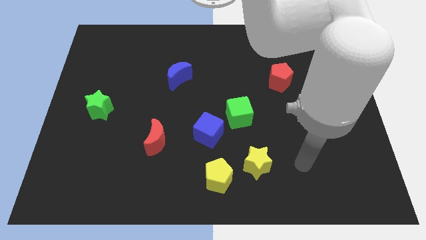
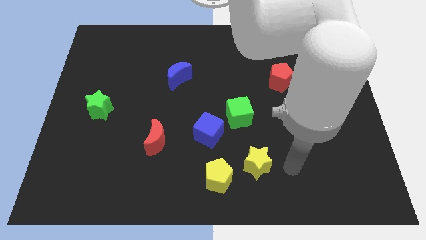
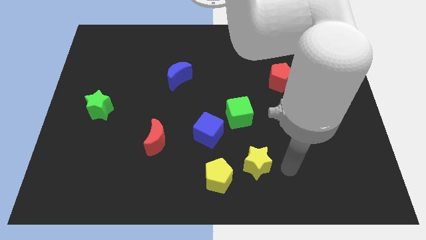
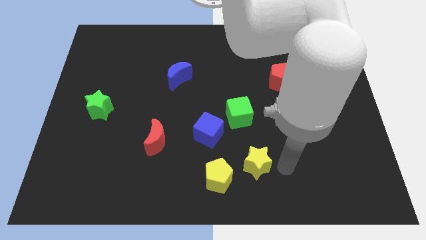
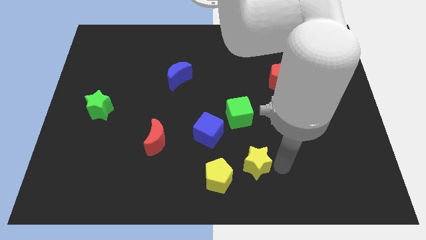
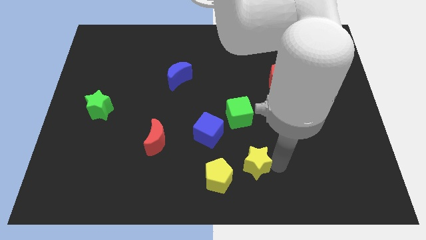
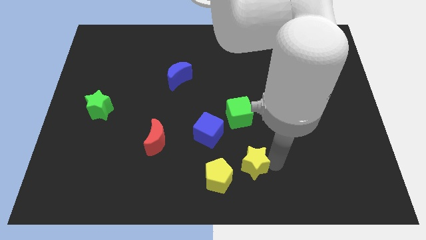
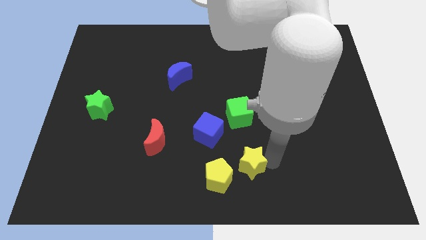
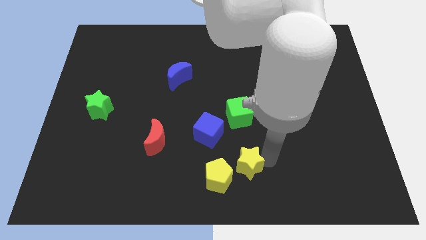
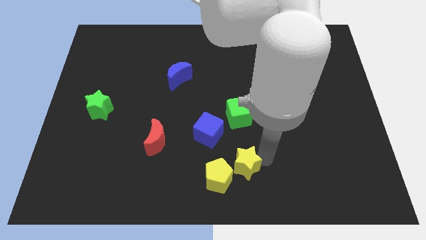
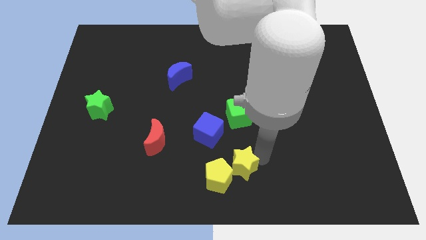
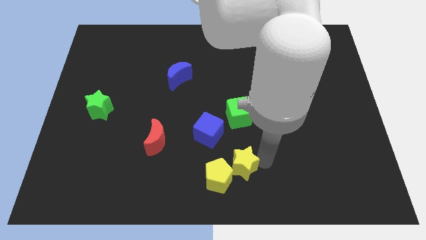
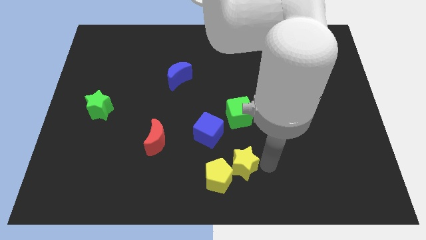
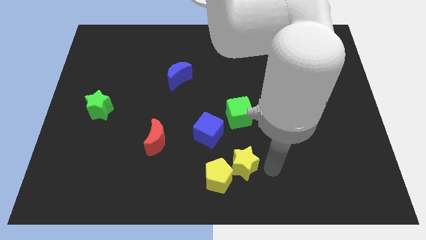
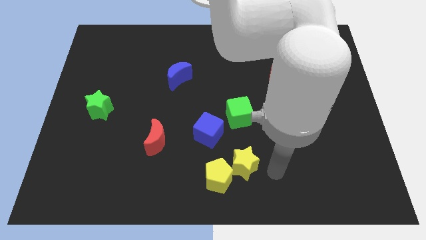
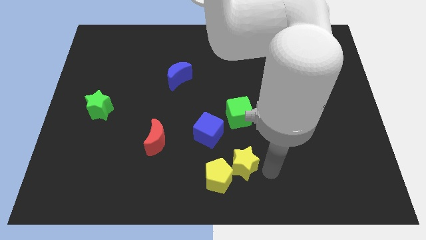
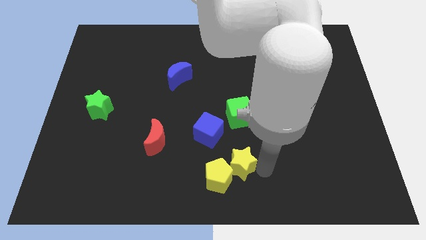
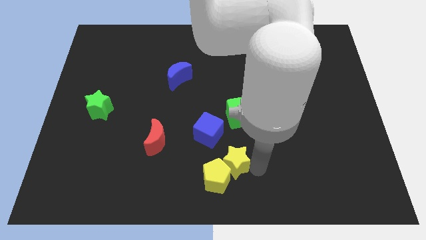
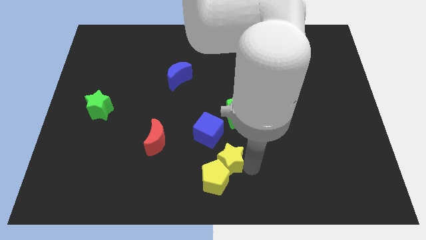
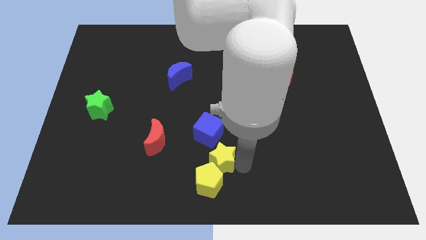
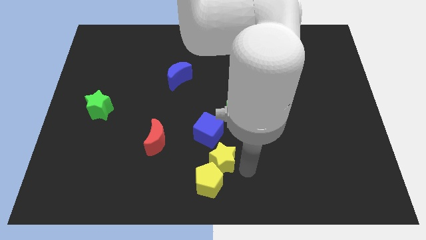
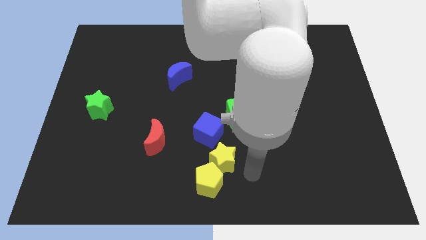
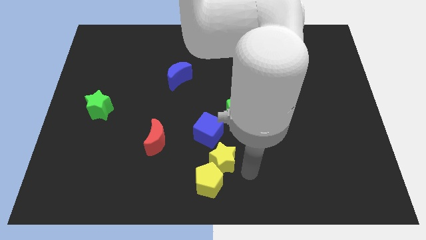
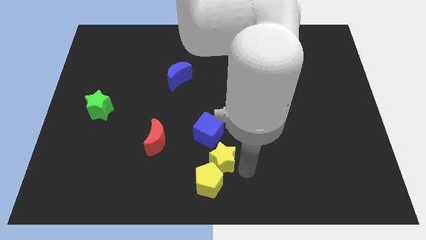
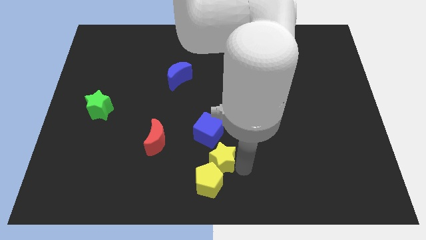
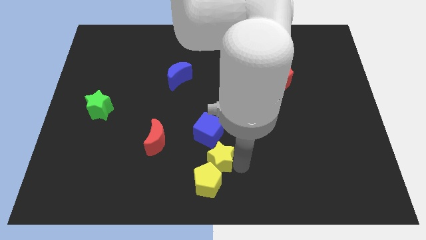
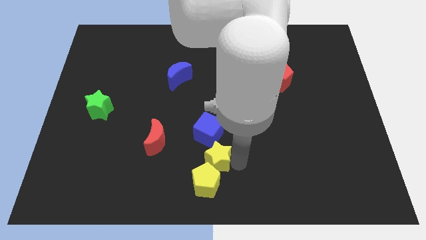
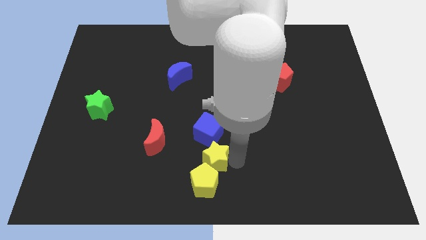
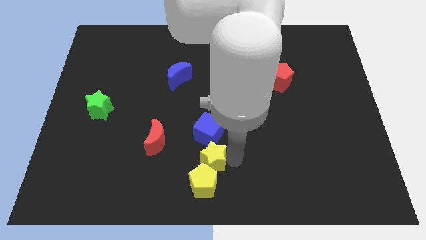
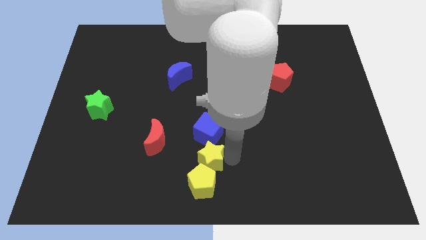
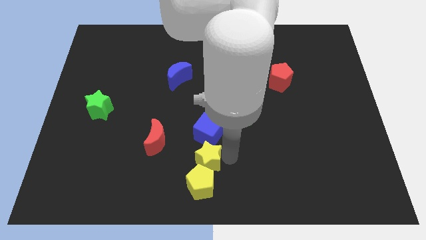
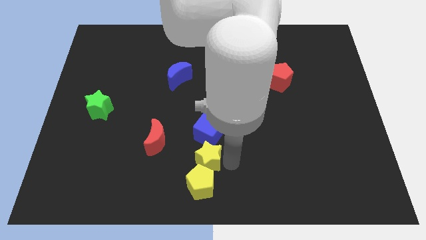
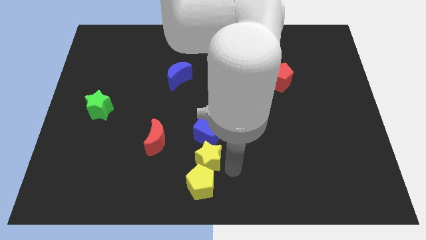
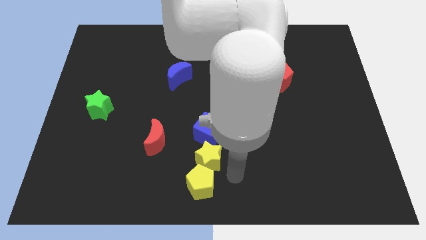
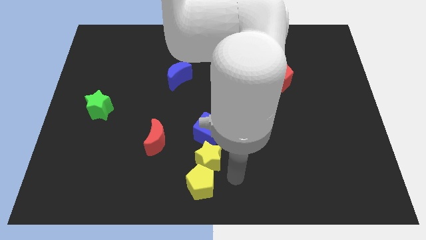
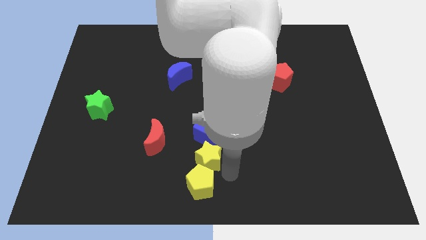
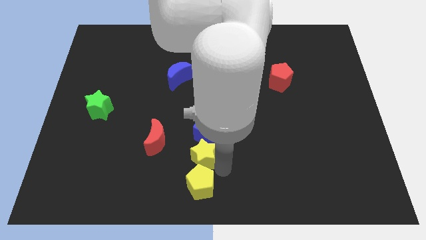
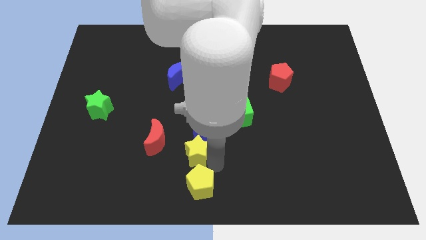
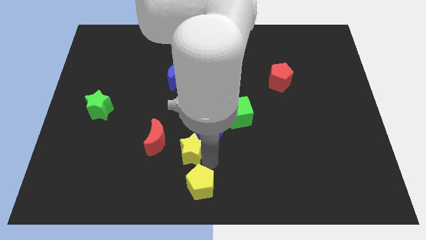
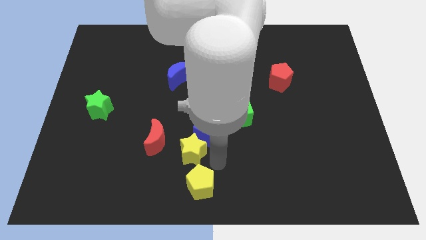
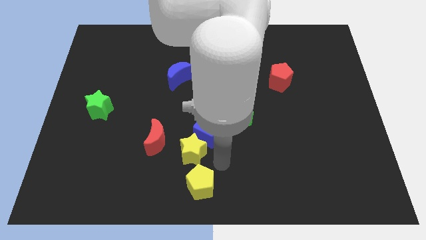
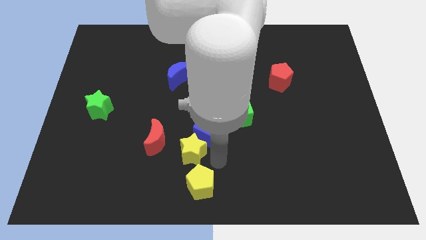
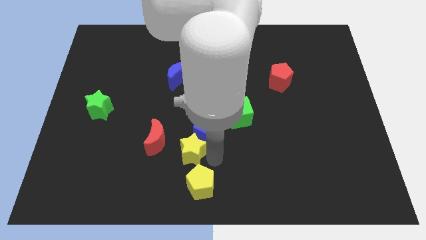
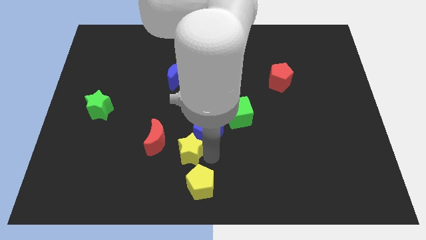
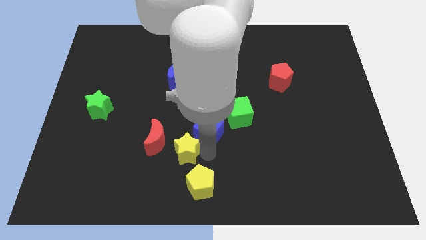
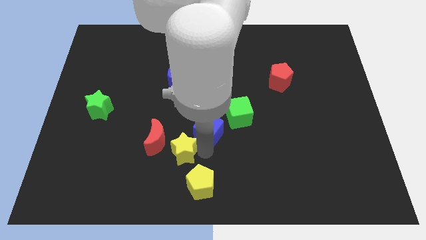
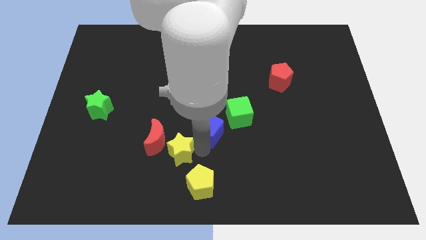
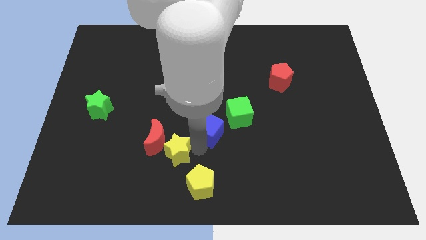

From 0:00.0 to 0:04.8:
put the yellow star to the red moon

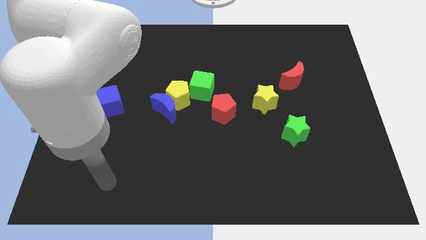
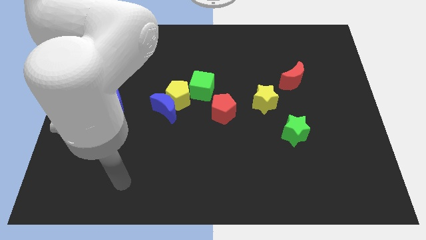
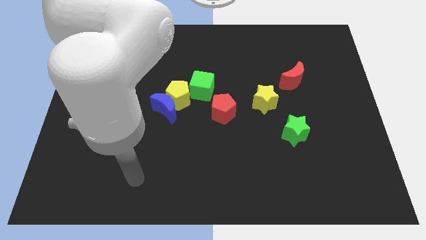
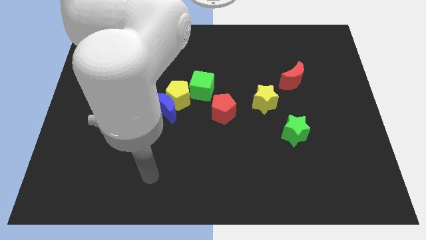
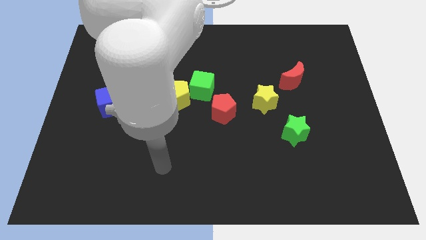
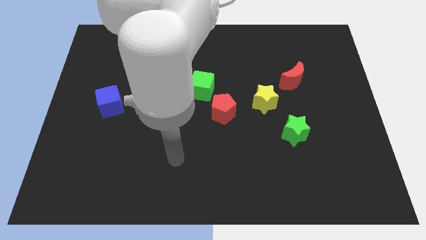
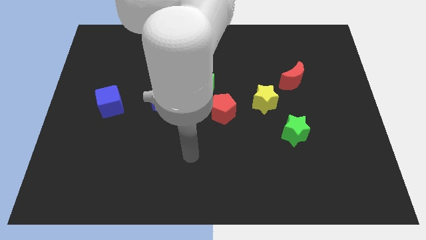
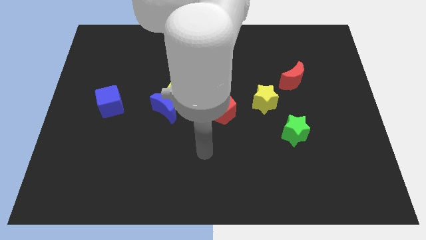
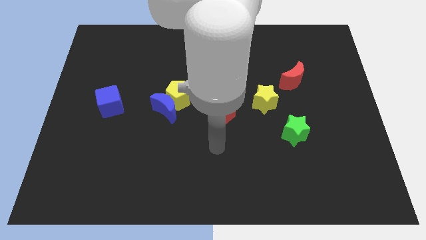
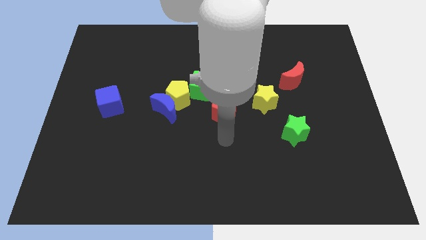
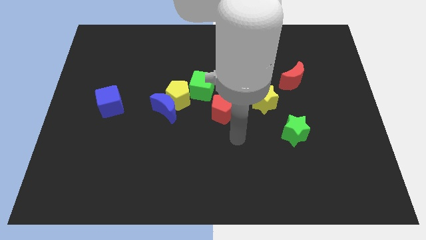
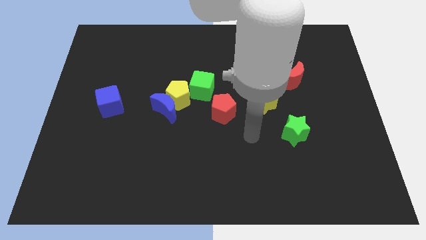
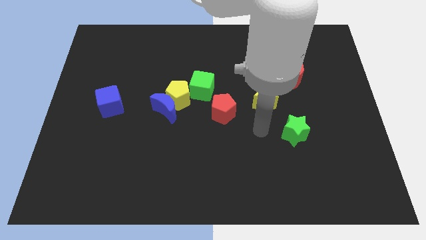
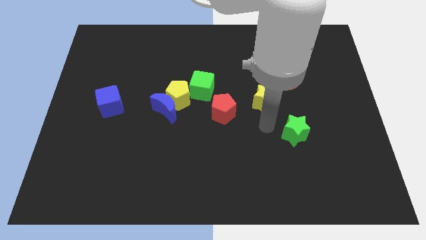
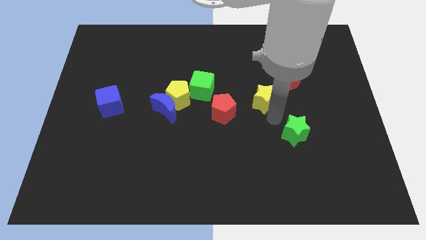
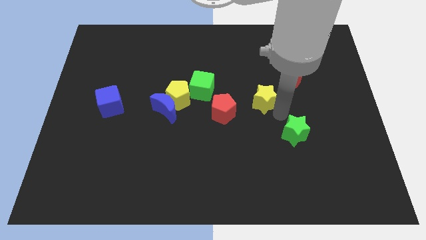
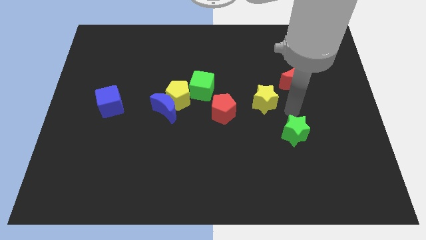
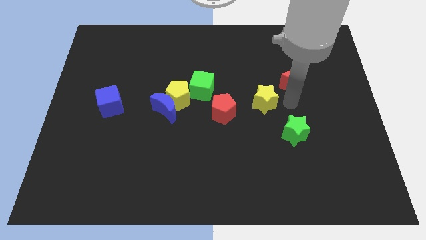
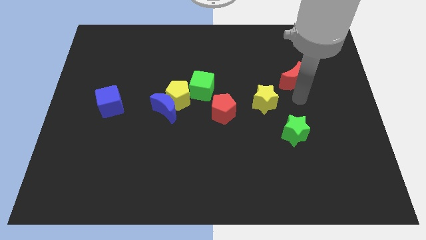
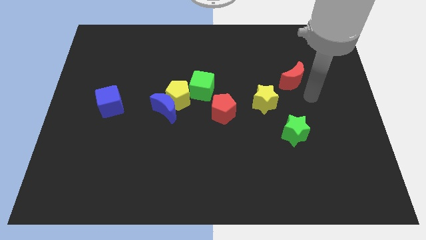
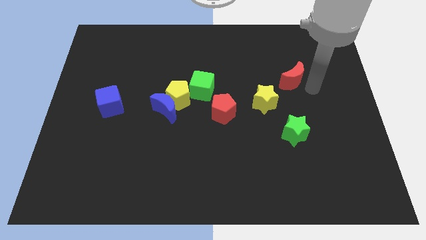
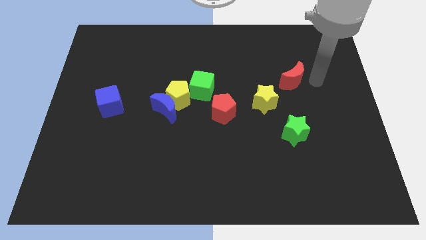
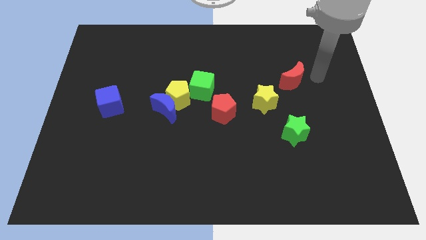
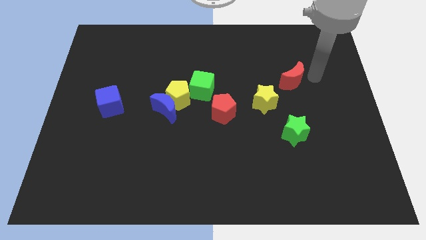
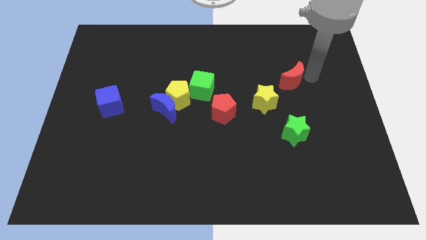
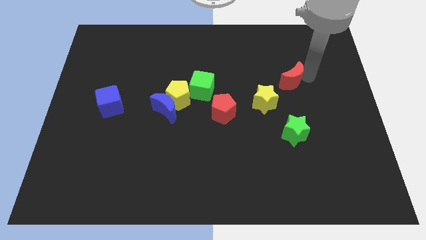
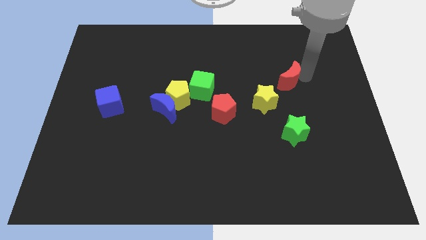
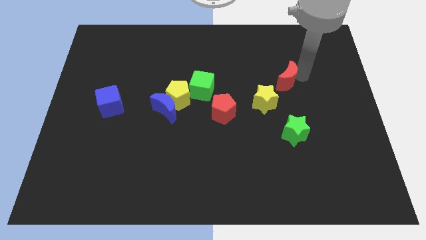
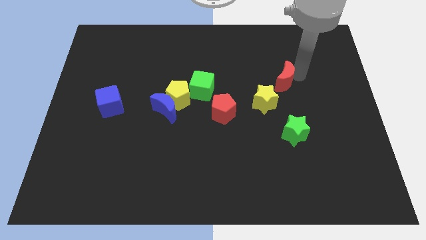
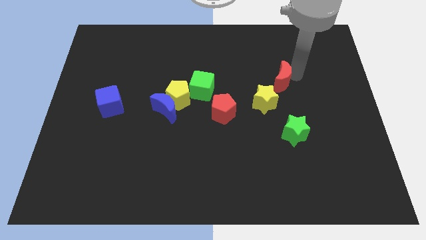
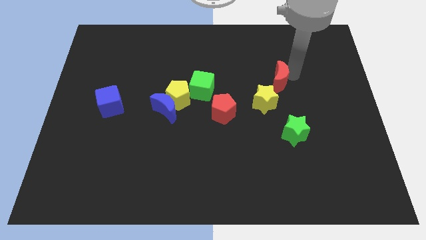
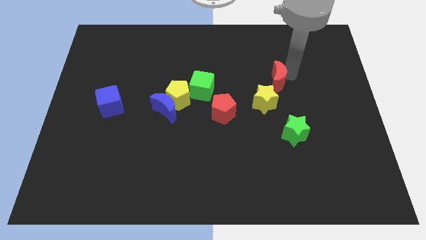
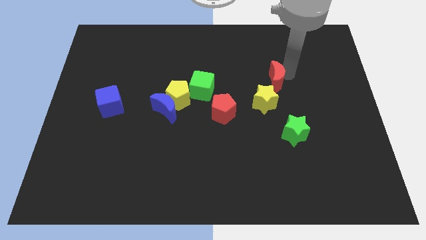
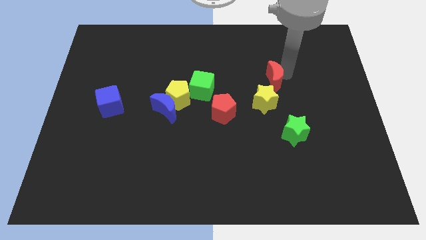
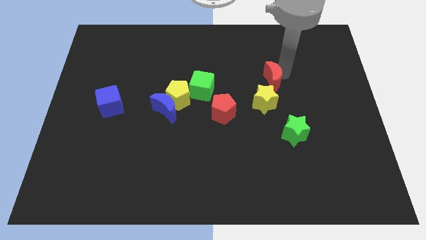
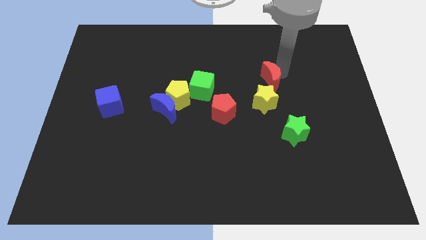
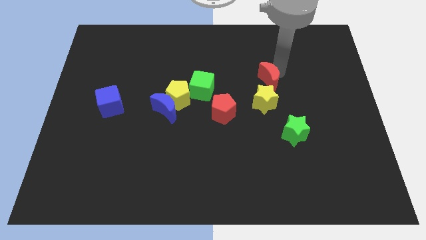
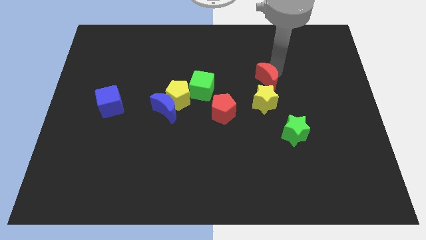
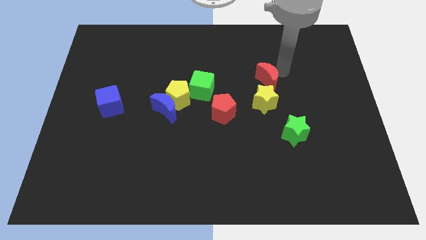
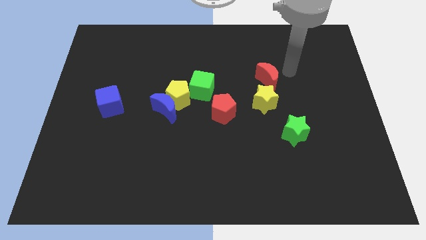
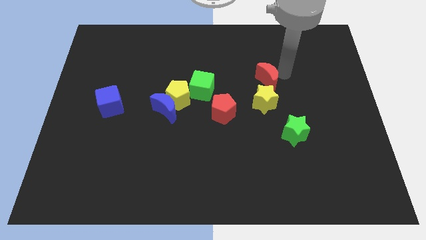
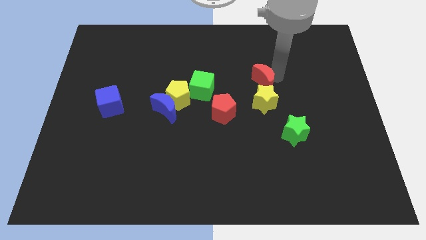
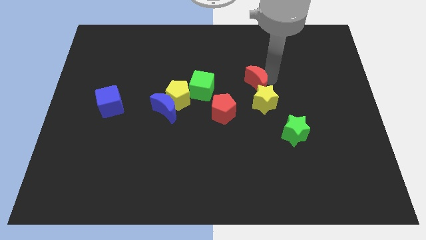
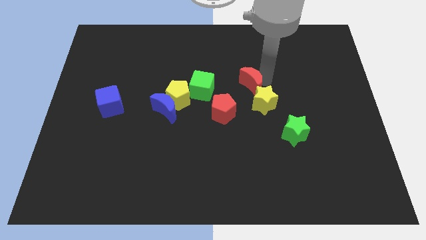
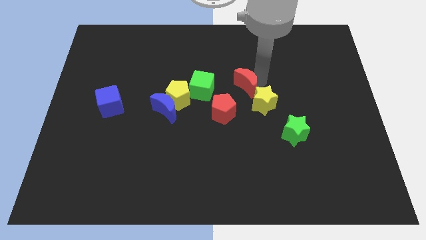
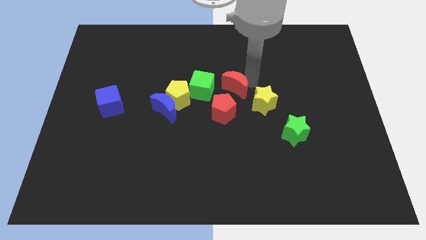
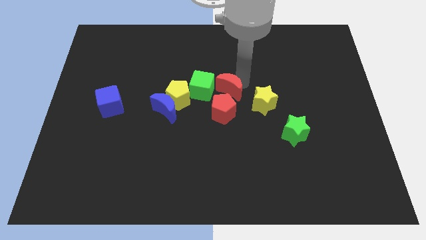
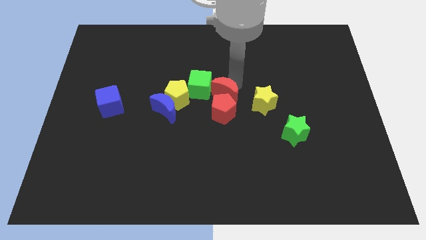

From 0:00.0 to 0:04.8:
push the red moon to the red pentagon
